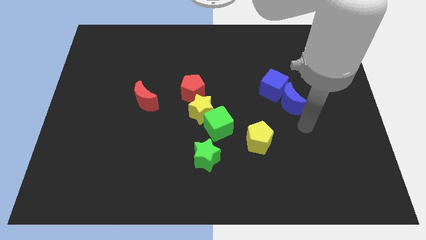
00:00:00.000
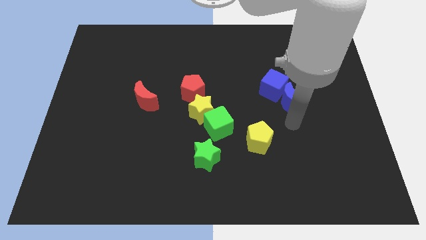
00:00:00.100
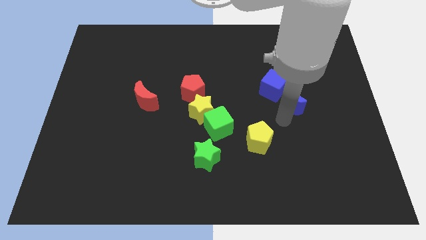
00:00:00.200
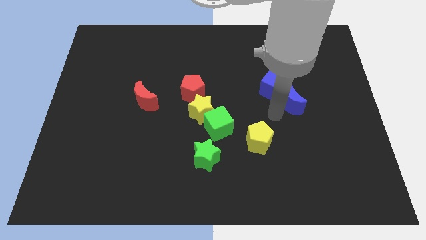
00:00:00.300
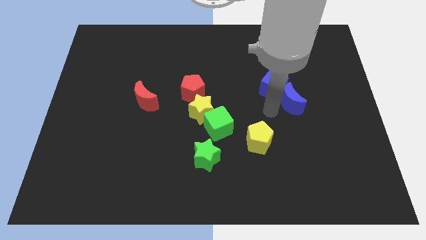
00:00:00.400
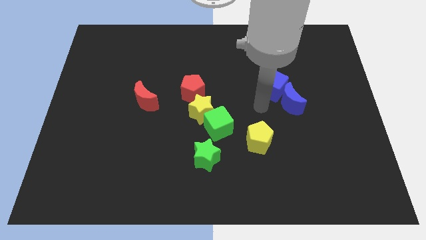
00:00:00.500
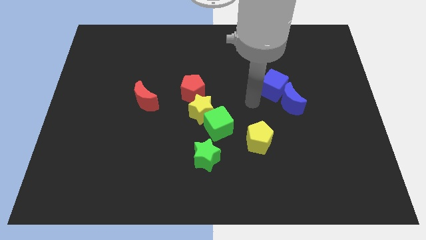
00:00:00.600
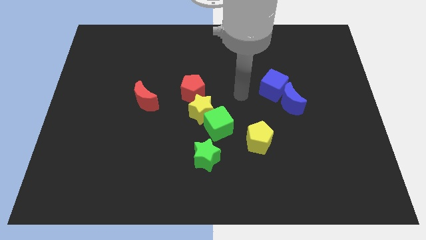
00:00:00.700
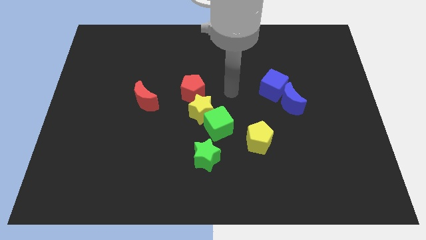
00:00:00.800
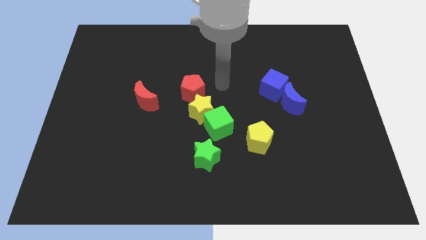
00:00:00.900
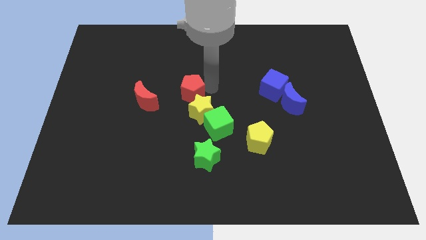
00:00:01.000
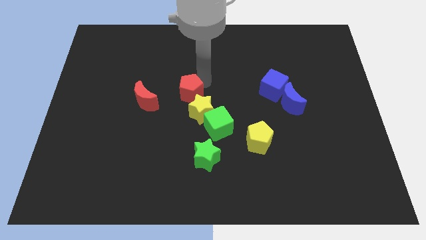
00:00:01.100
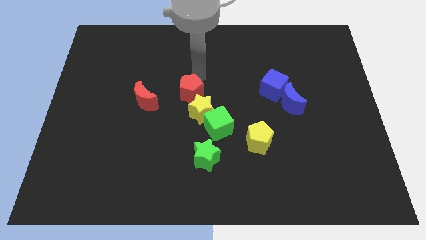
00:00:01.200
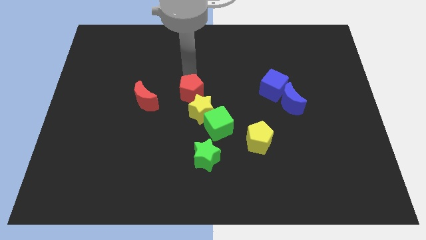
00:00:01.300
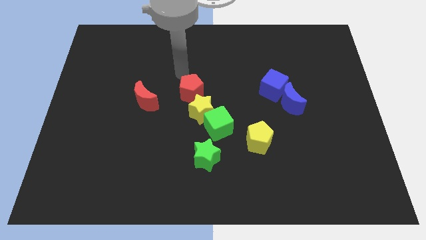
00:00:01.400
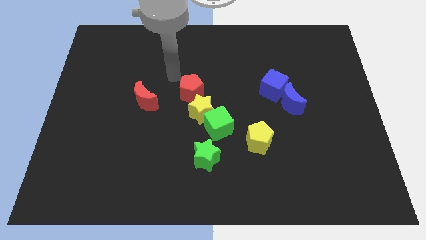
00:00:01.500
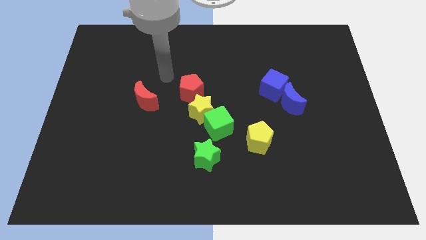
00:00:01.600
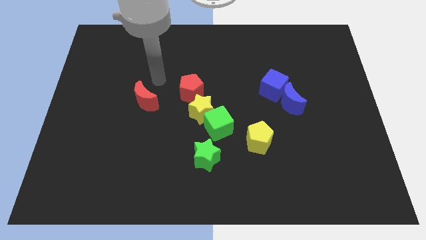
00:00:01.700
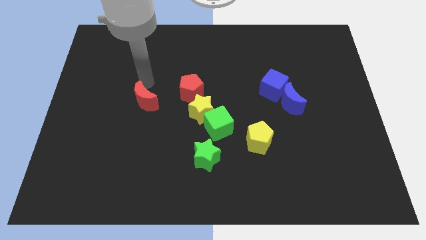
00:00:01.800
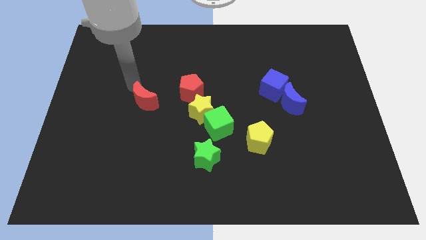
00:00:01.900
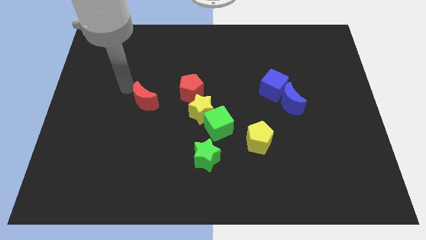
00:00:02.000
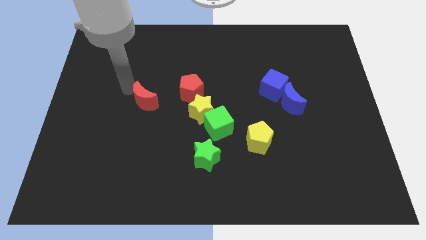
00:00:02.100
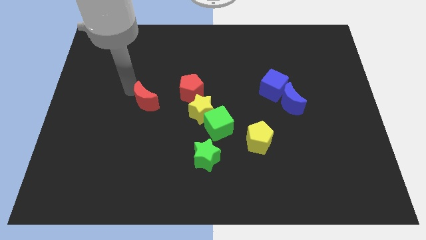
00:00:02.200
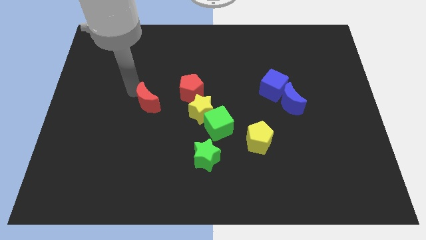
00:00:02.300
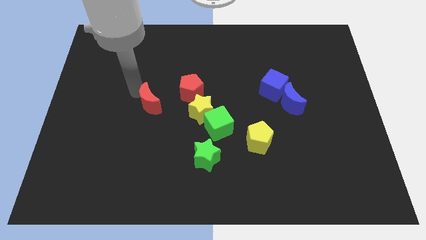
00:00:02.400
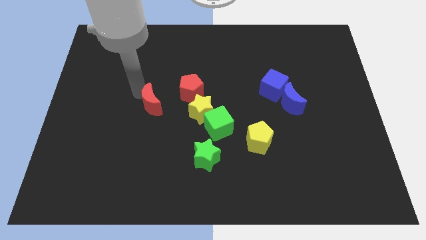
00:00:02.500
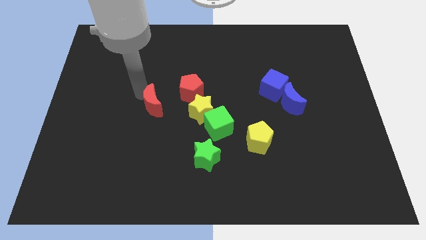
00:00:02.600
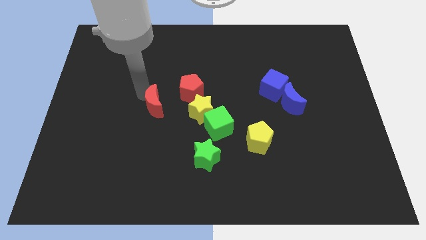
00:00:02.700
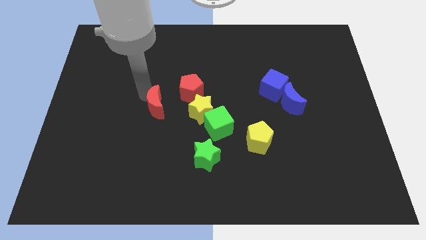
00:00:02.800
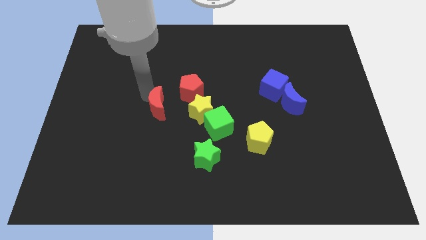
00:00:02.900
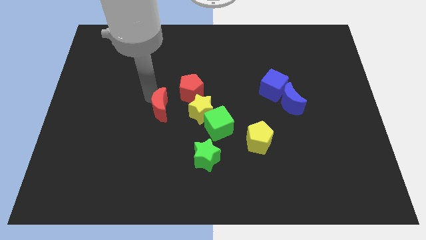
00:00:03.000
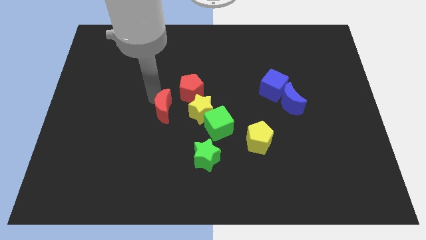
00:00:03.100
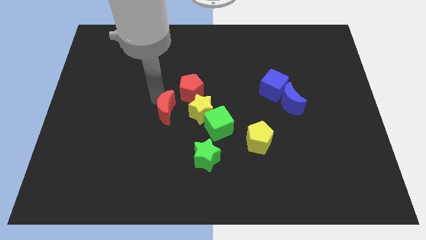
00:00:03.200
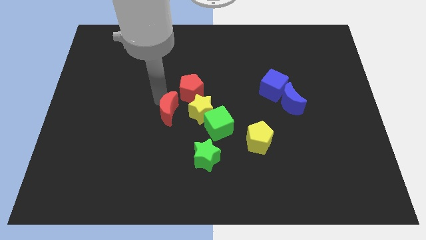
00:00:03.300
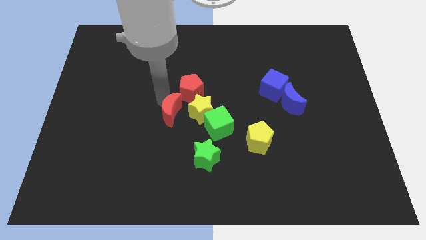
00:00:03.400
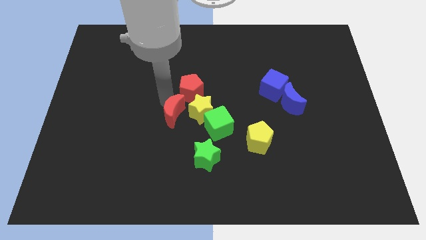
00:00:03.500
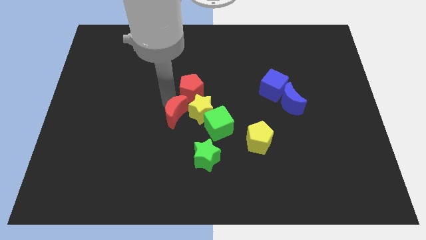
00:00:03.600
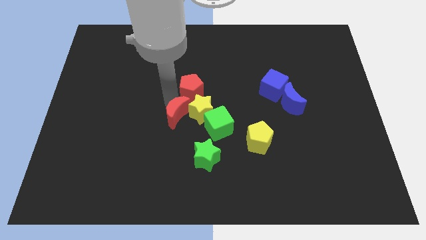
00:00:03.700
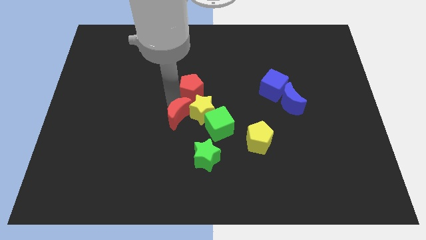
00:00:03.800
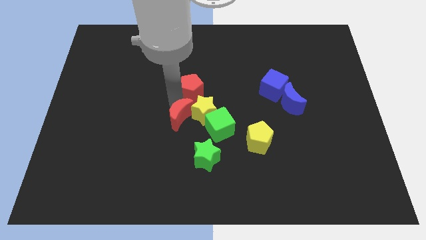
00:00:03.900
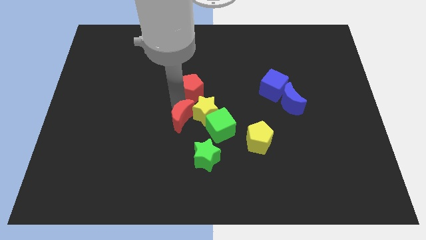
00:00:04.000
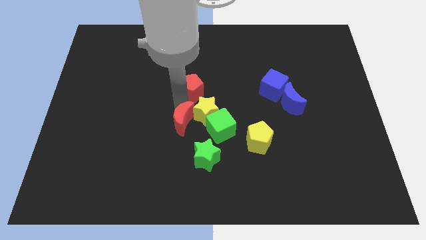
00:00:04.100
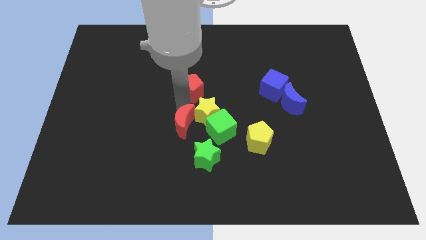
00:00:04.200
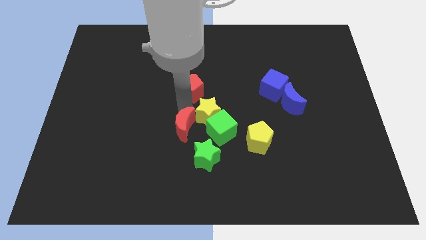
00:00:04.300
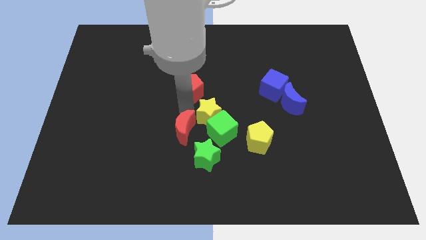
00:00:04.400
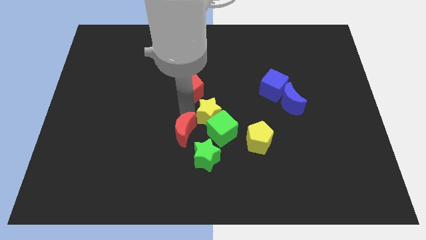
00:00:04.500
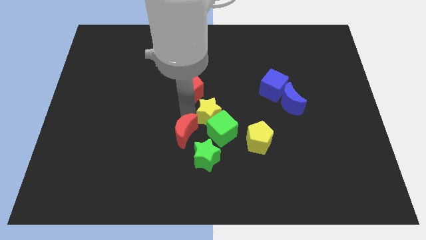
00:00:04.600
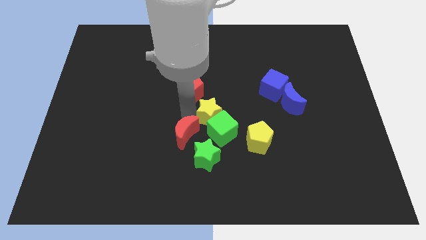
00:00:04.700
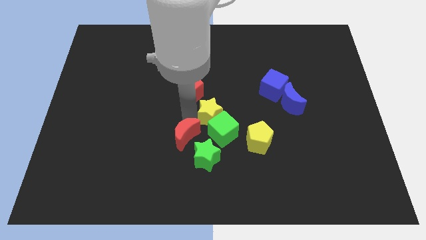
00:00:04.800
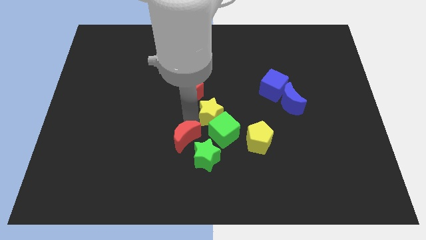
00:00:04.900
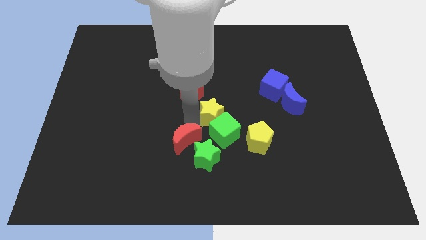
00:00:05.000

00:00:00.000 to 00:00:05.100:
push the red moon towards the green star

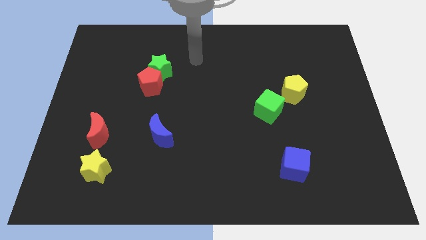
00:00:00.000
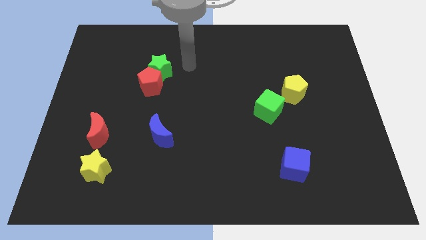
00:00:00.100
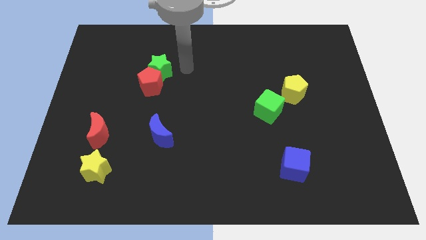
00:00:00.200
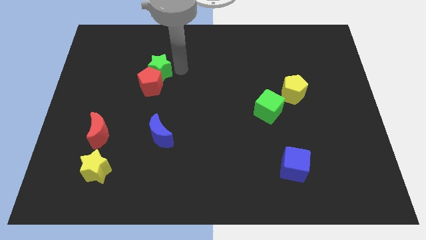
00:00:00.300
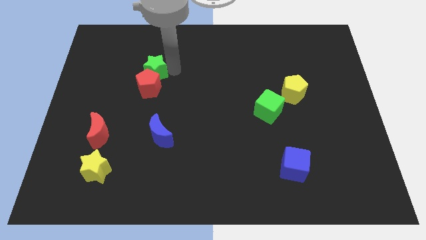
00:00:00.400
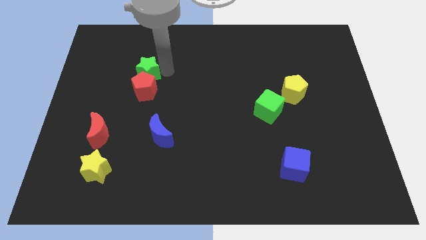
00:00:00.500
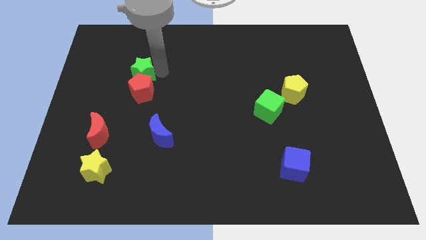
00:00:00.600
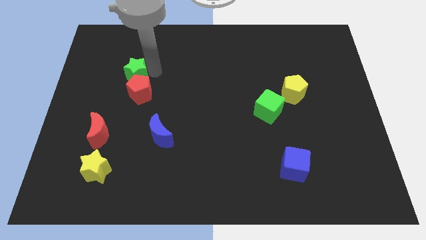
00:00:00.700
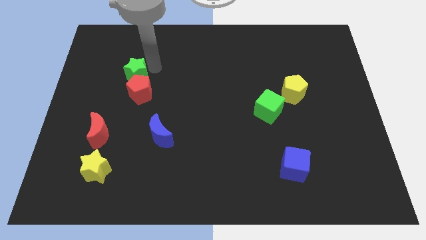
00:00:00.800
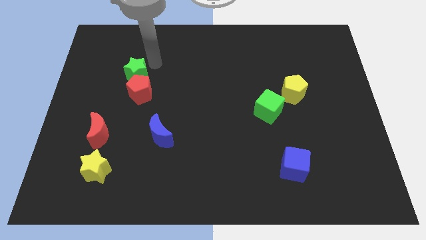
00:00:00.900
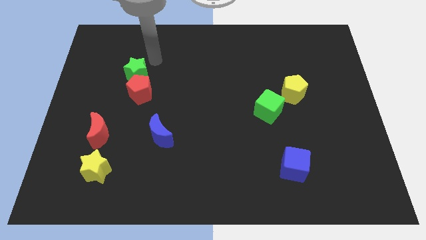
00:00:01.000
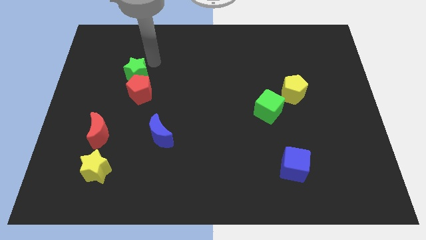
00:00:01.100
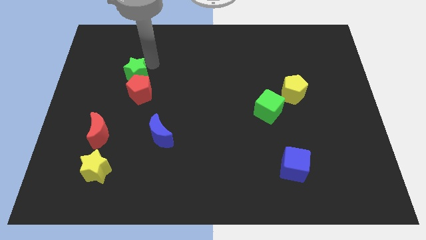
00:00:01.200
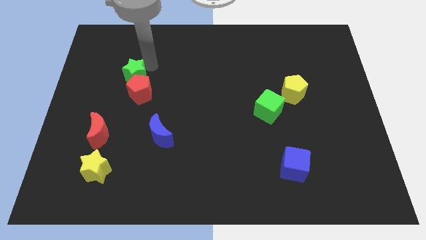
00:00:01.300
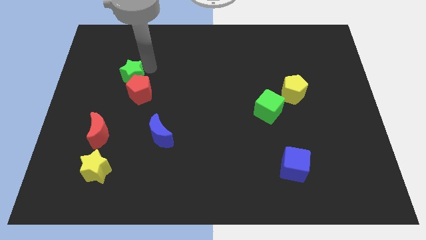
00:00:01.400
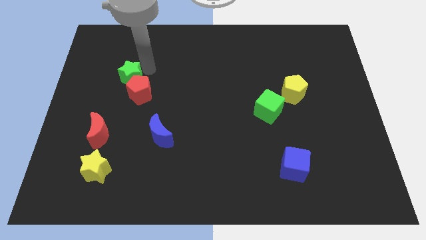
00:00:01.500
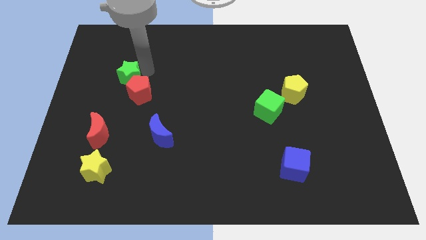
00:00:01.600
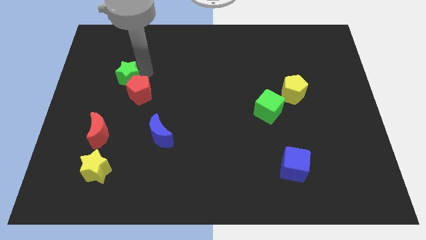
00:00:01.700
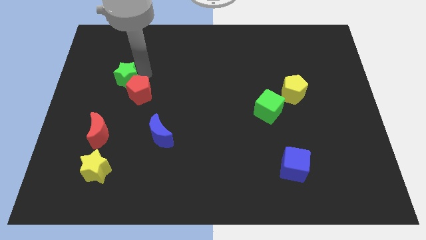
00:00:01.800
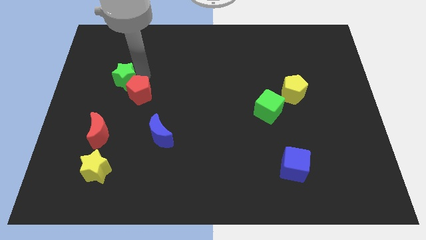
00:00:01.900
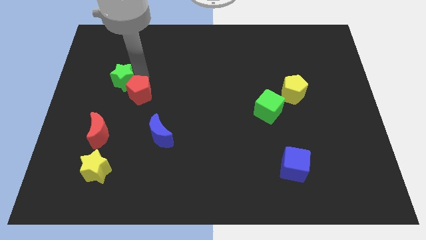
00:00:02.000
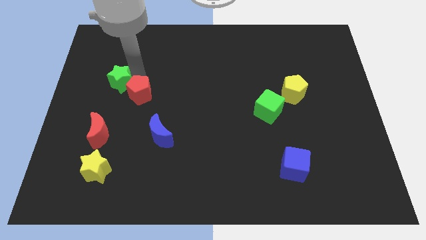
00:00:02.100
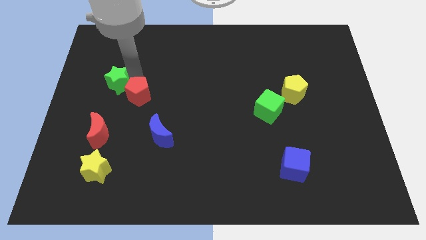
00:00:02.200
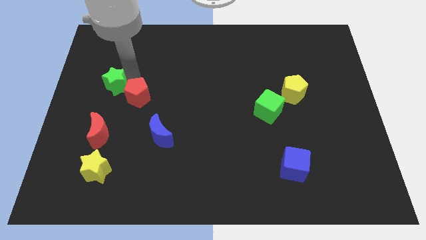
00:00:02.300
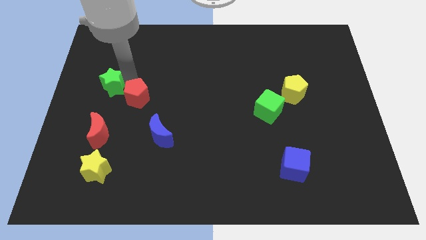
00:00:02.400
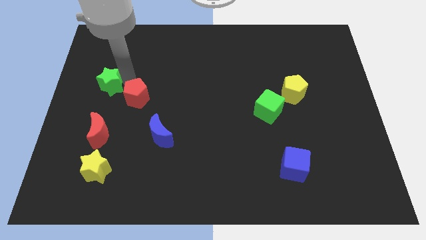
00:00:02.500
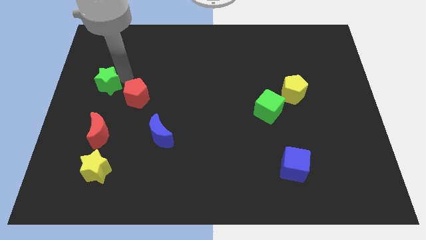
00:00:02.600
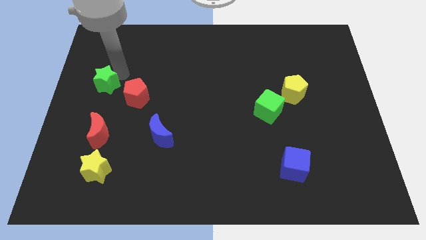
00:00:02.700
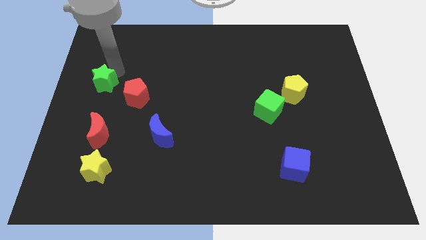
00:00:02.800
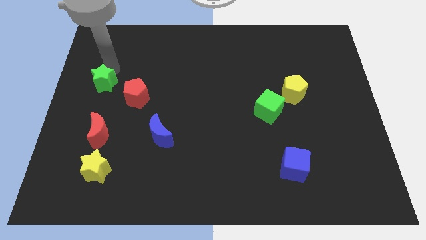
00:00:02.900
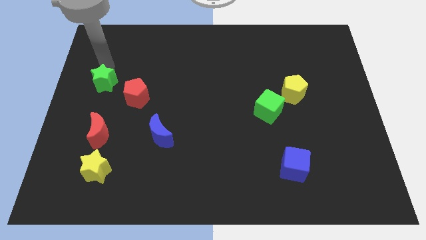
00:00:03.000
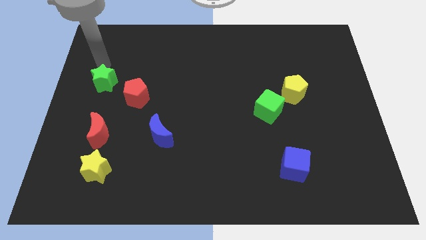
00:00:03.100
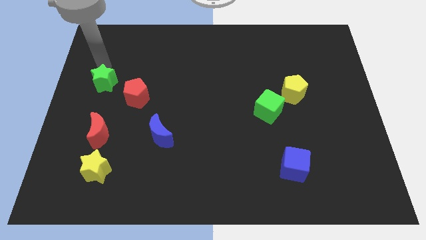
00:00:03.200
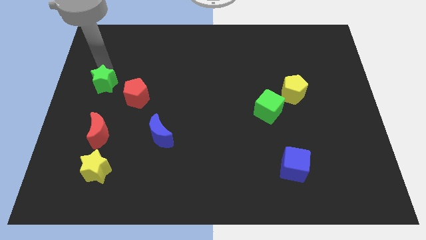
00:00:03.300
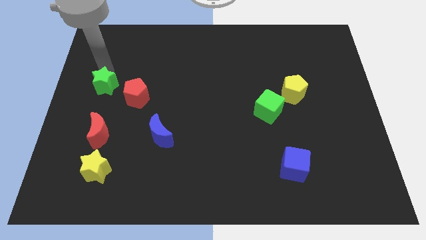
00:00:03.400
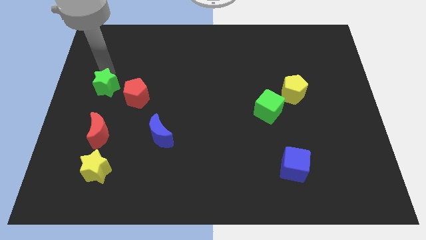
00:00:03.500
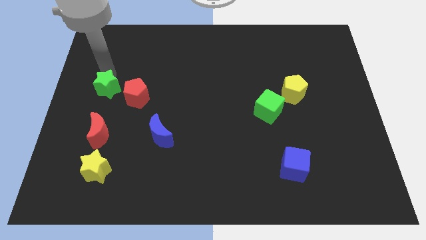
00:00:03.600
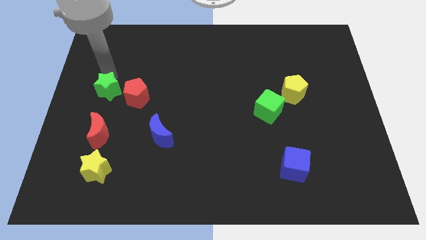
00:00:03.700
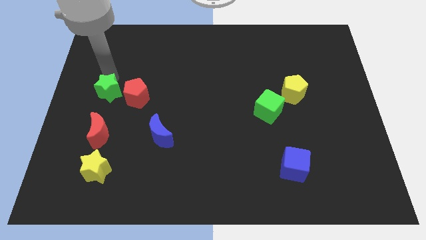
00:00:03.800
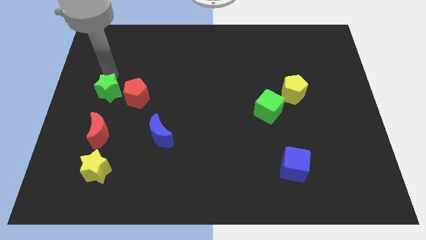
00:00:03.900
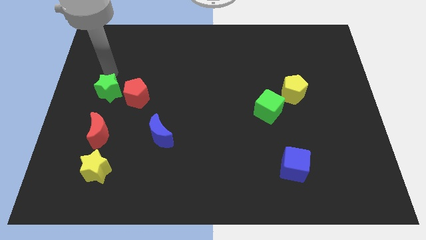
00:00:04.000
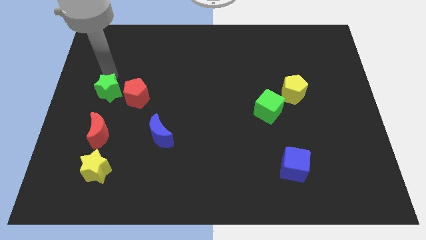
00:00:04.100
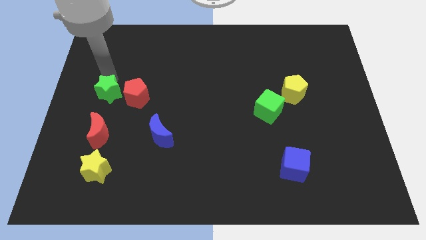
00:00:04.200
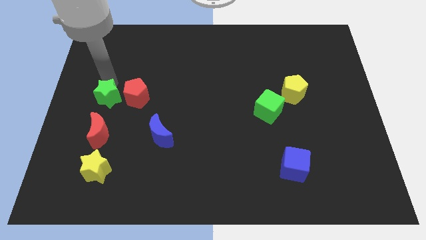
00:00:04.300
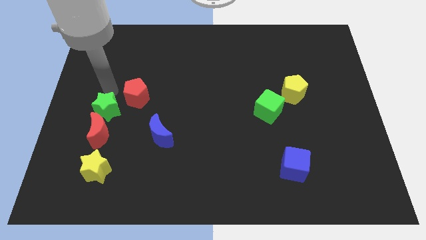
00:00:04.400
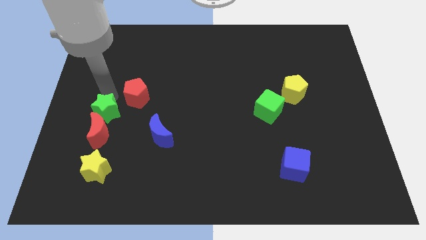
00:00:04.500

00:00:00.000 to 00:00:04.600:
move the green star next to the red moon
